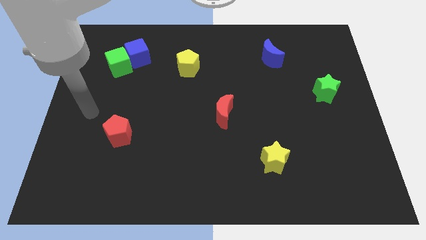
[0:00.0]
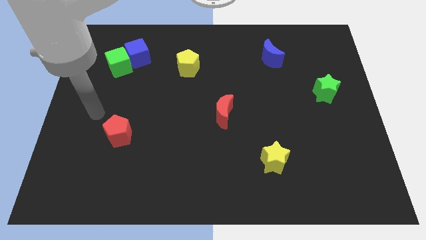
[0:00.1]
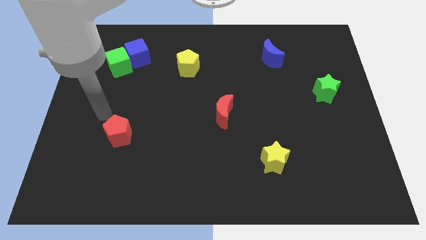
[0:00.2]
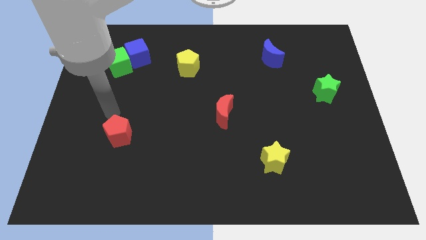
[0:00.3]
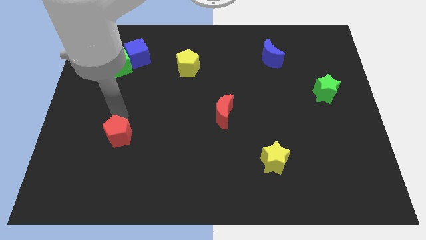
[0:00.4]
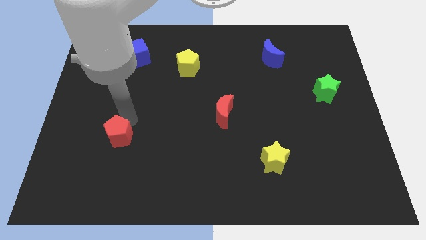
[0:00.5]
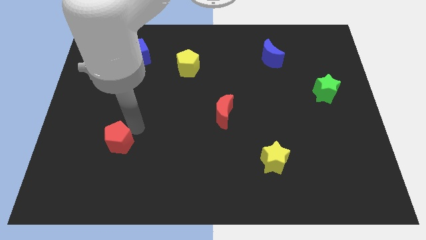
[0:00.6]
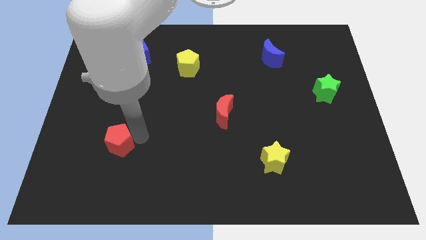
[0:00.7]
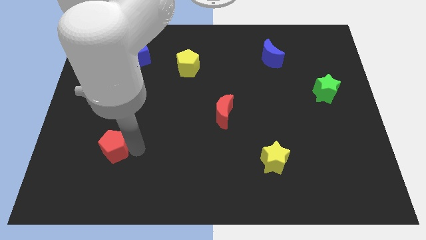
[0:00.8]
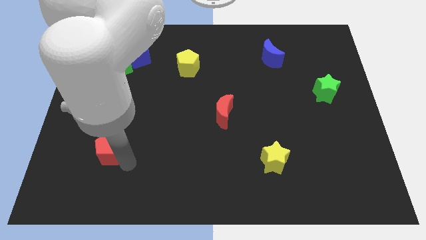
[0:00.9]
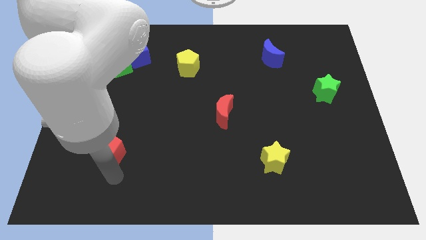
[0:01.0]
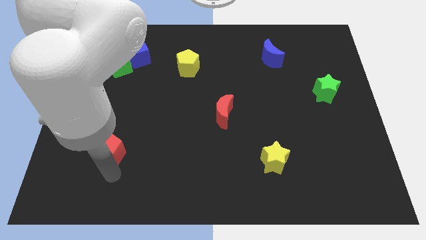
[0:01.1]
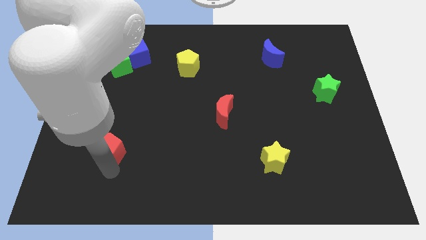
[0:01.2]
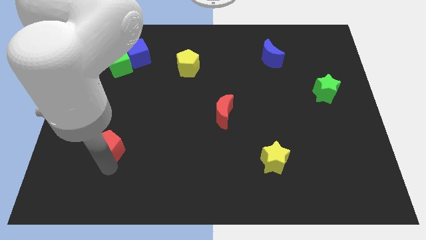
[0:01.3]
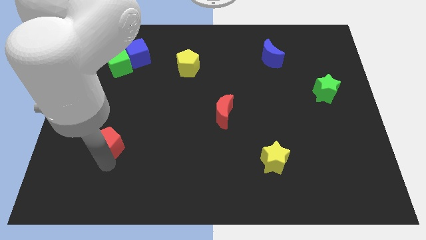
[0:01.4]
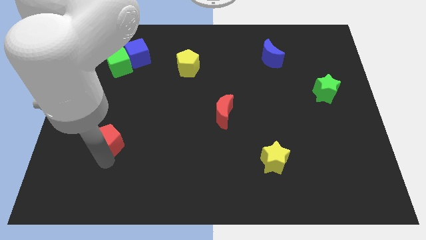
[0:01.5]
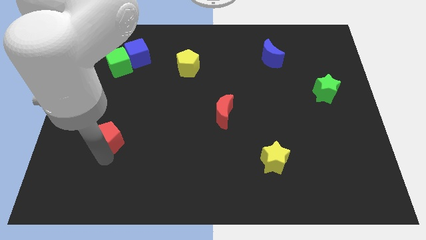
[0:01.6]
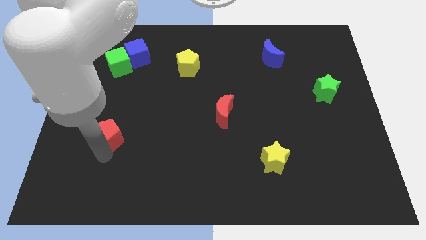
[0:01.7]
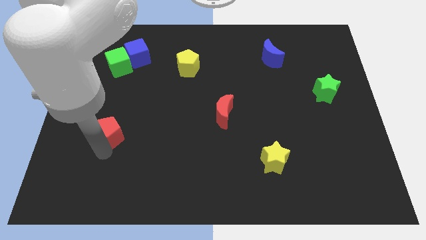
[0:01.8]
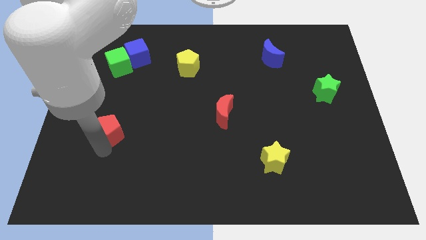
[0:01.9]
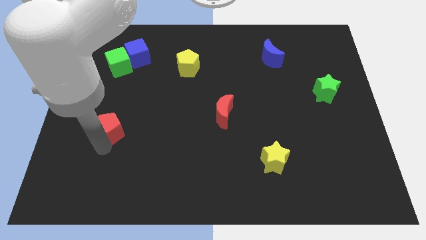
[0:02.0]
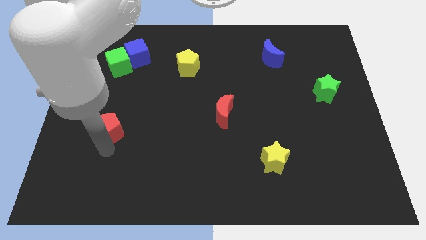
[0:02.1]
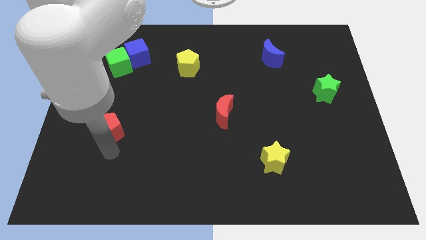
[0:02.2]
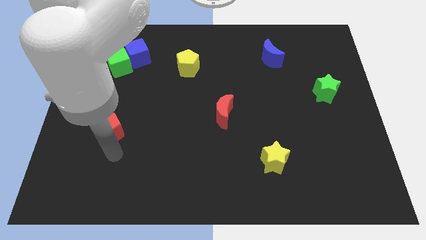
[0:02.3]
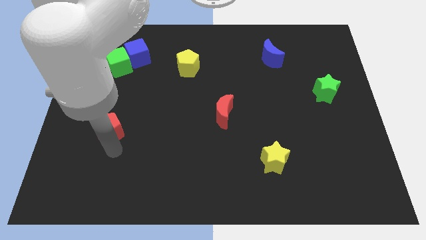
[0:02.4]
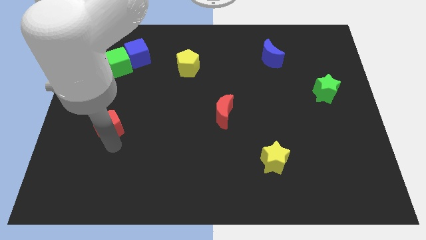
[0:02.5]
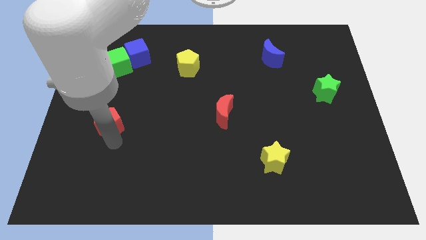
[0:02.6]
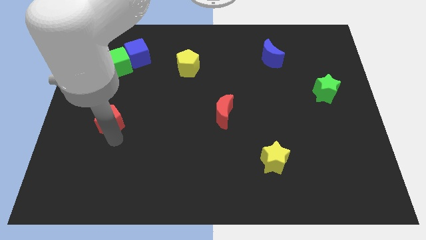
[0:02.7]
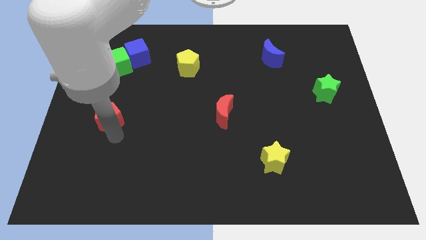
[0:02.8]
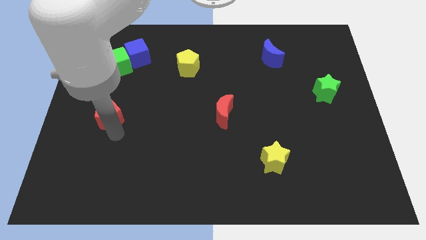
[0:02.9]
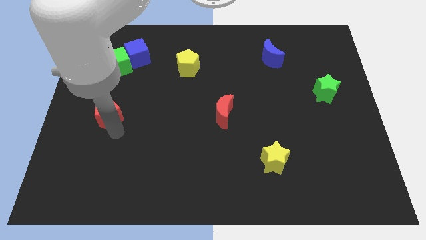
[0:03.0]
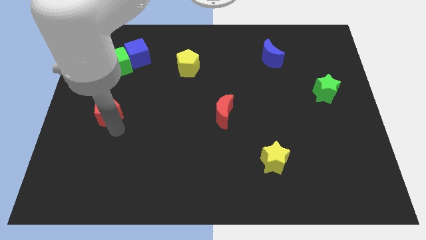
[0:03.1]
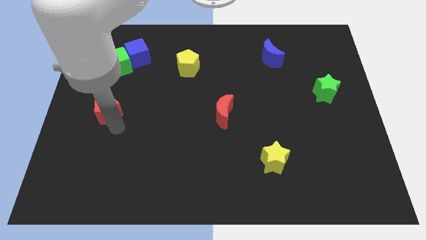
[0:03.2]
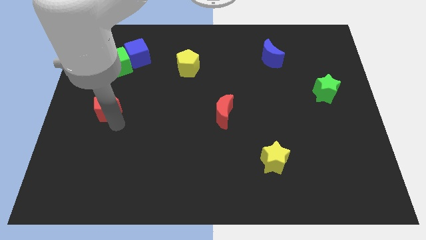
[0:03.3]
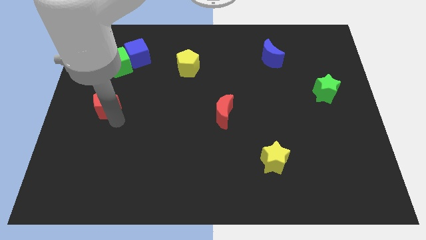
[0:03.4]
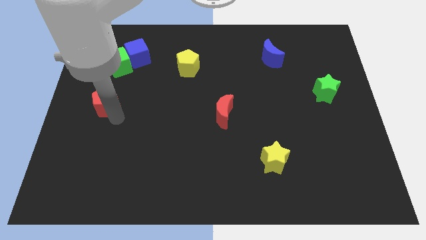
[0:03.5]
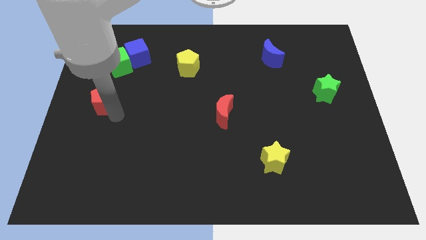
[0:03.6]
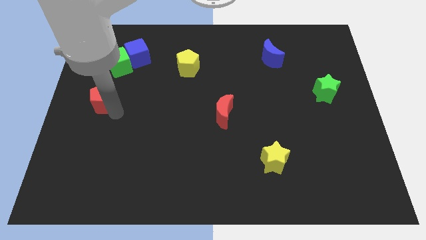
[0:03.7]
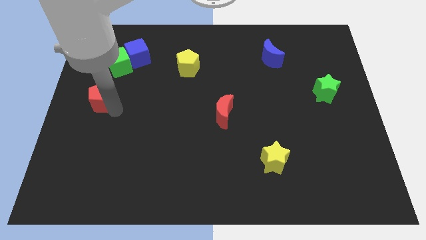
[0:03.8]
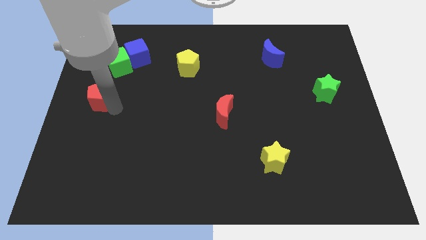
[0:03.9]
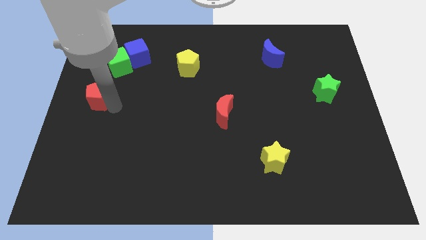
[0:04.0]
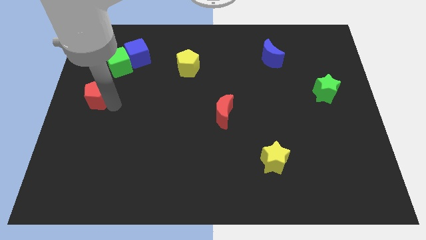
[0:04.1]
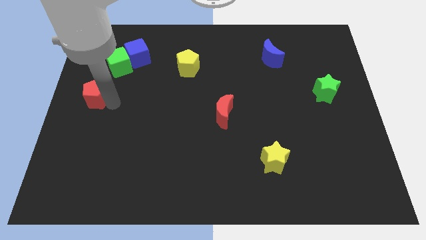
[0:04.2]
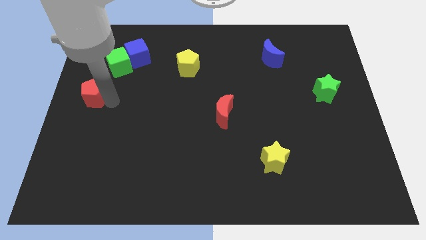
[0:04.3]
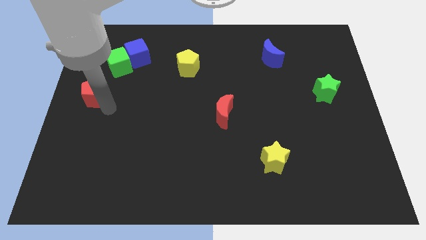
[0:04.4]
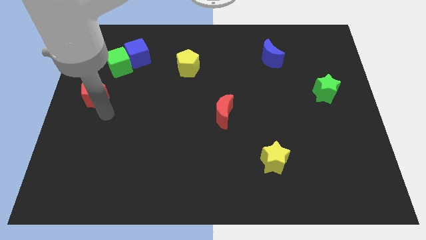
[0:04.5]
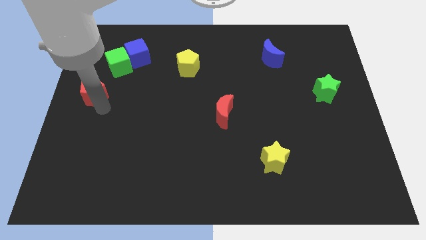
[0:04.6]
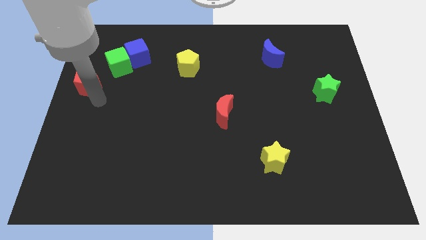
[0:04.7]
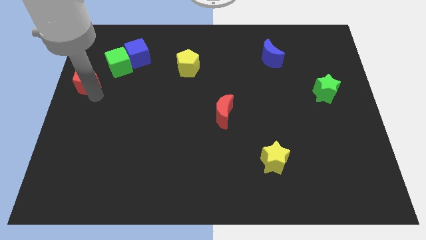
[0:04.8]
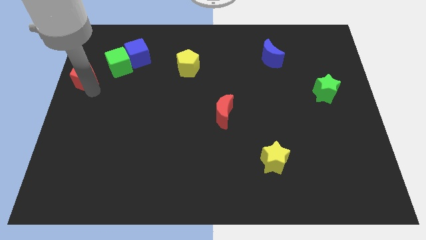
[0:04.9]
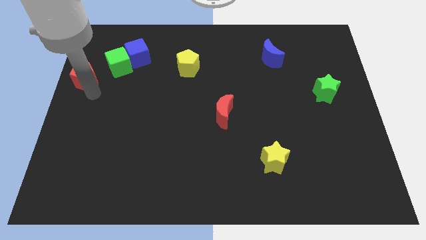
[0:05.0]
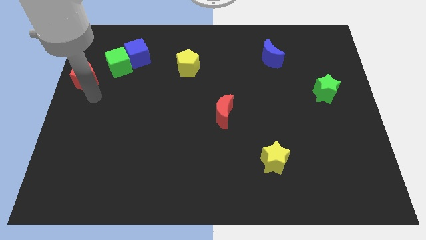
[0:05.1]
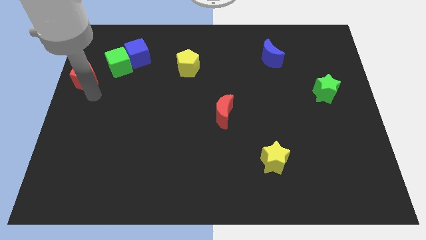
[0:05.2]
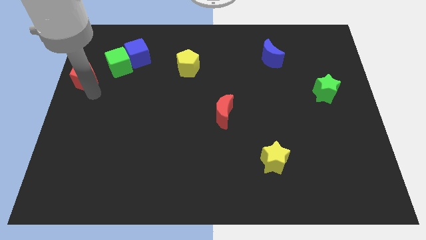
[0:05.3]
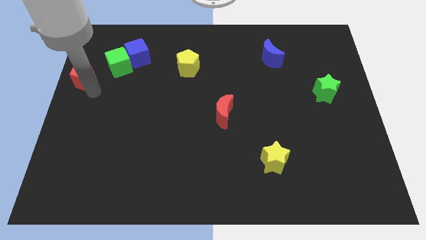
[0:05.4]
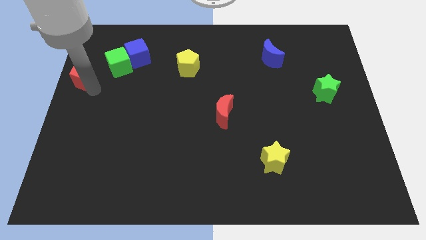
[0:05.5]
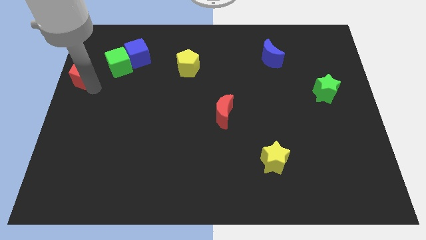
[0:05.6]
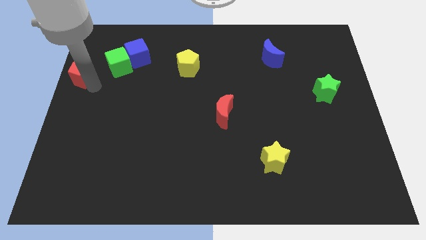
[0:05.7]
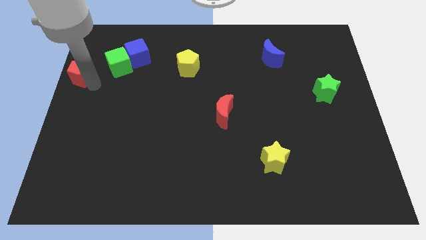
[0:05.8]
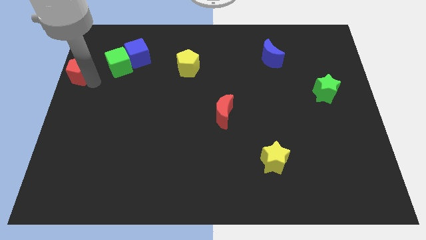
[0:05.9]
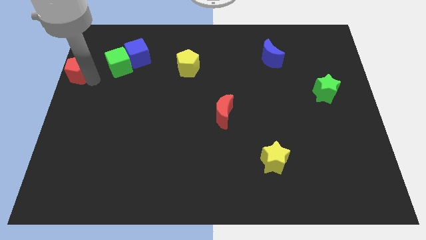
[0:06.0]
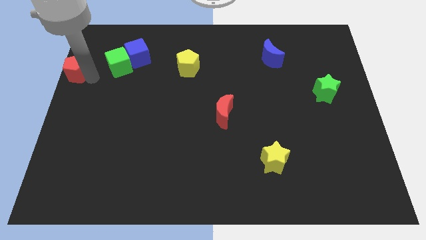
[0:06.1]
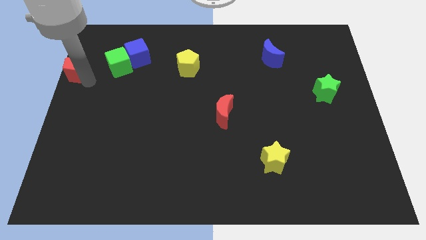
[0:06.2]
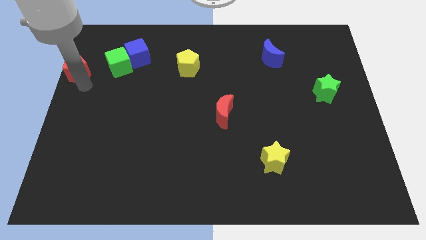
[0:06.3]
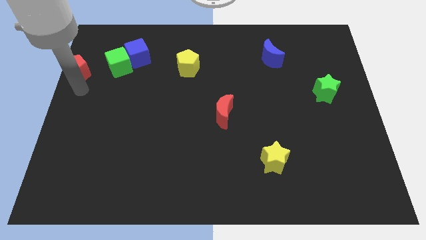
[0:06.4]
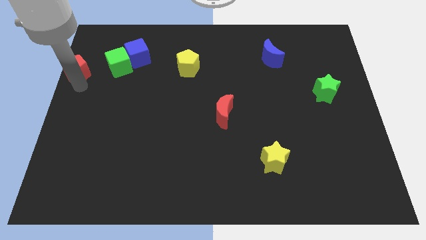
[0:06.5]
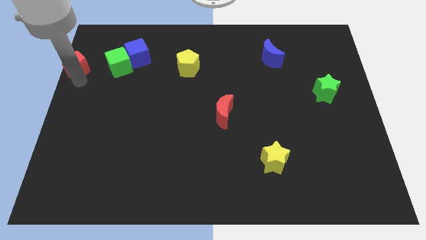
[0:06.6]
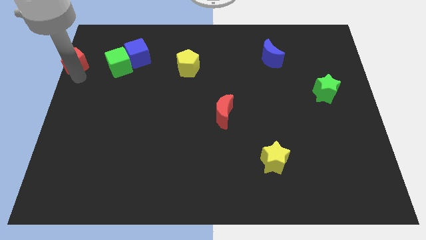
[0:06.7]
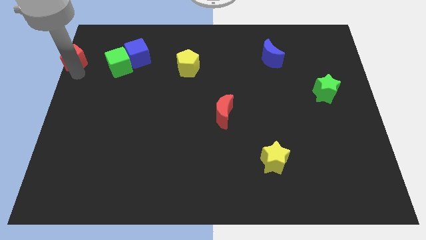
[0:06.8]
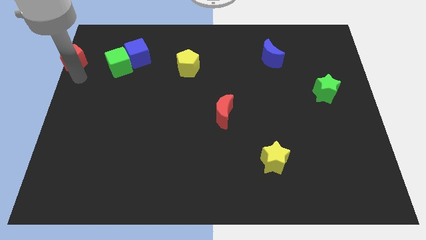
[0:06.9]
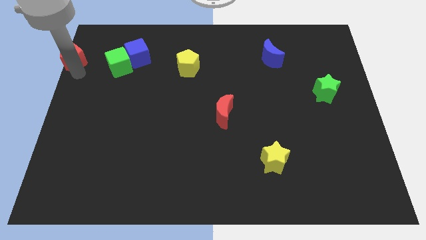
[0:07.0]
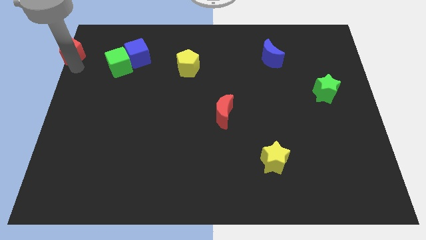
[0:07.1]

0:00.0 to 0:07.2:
slide the red pentagon to the top left of the board
